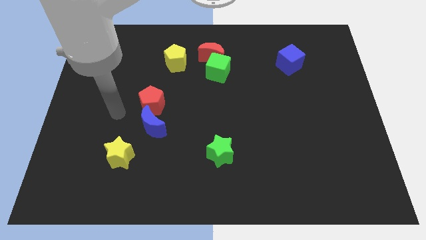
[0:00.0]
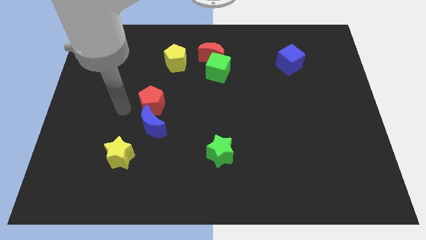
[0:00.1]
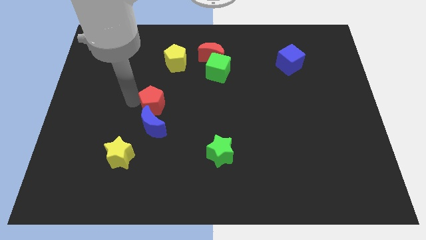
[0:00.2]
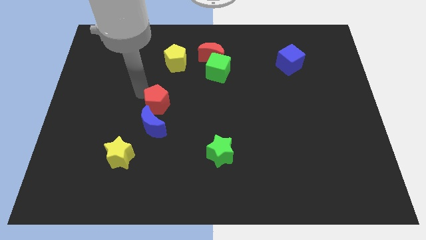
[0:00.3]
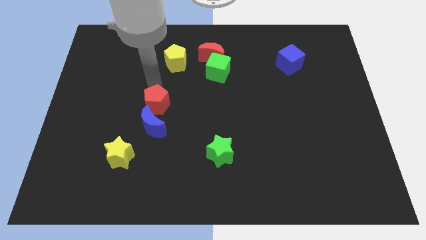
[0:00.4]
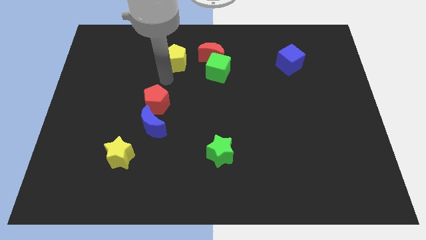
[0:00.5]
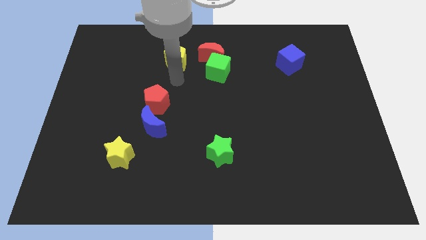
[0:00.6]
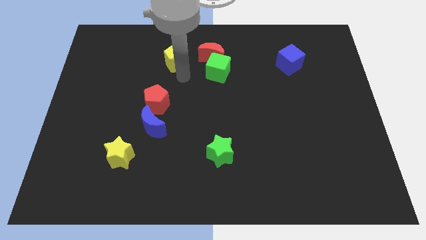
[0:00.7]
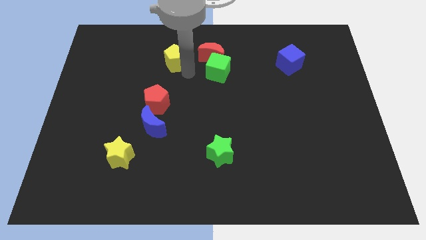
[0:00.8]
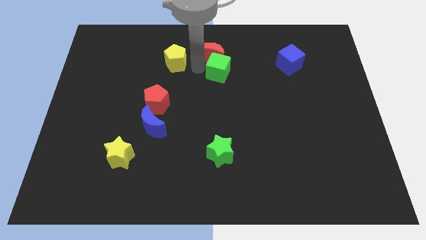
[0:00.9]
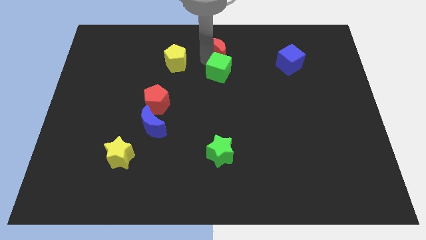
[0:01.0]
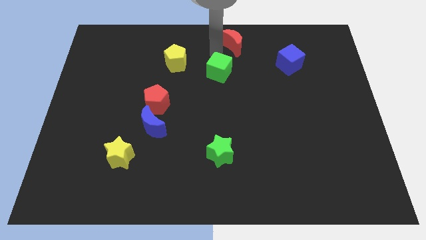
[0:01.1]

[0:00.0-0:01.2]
pull the green cube apart from the red moon

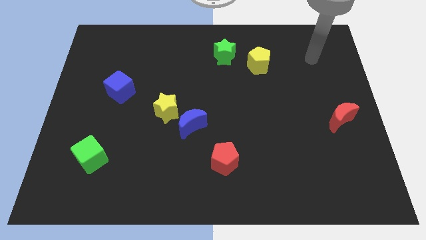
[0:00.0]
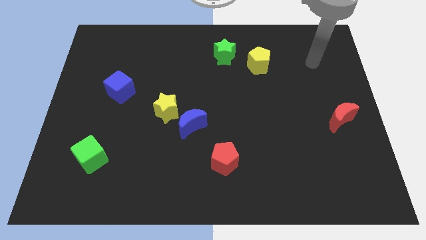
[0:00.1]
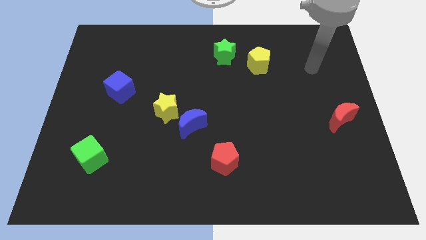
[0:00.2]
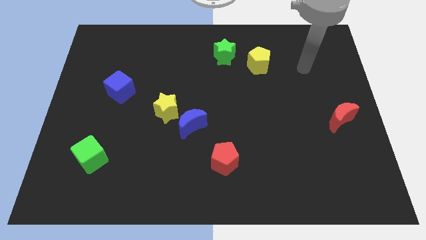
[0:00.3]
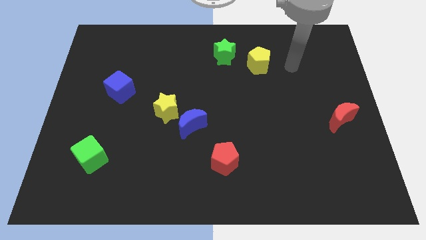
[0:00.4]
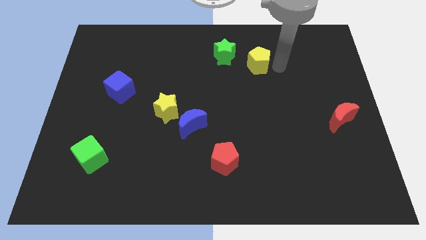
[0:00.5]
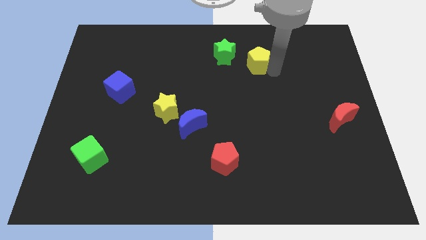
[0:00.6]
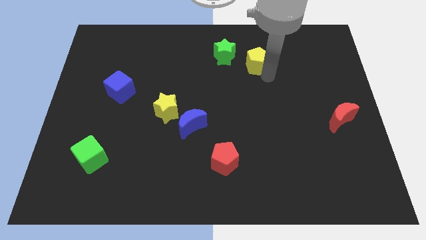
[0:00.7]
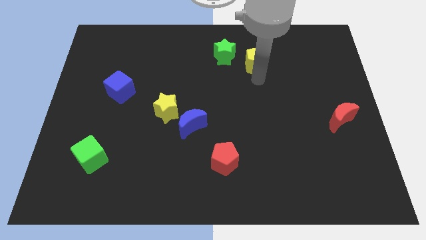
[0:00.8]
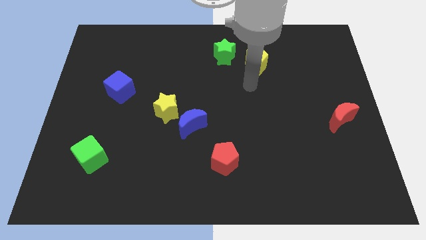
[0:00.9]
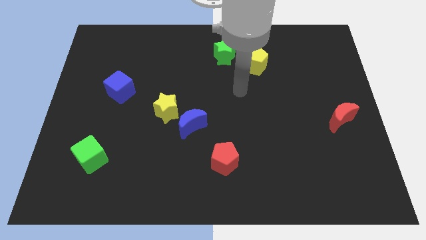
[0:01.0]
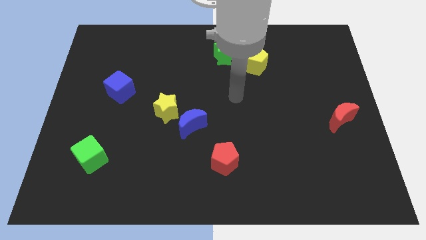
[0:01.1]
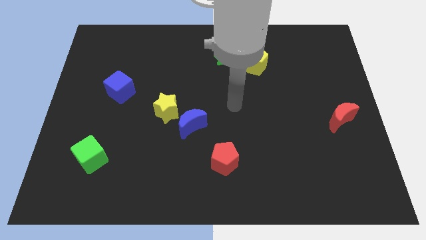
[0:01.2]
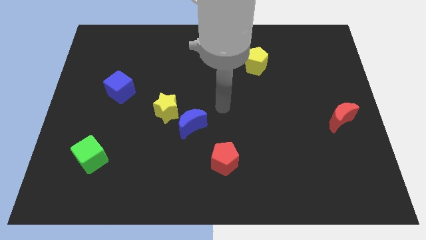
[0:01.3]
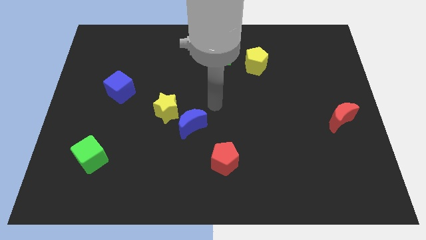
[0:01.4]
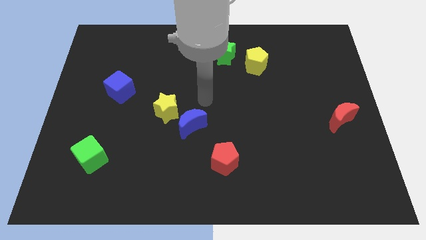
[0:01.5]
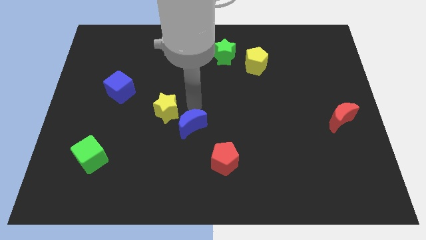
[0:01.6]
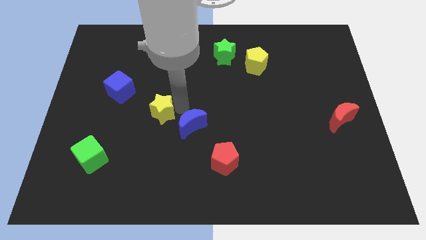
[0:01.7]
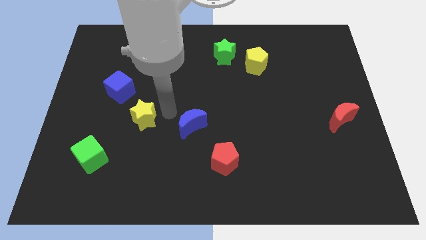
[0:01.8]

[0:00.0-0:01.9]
move the blue moon away from the yellow star

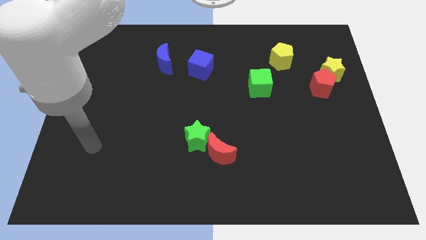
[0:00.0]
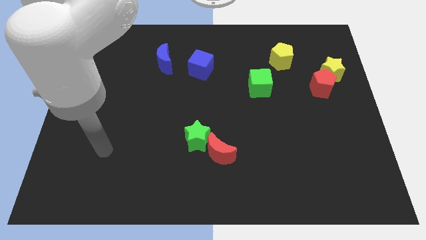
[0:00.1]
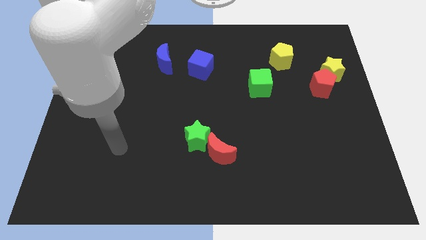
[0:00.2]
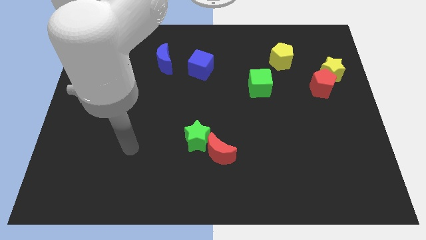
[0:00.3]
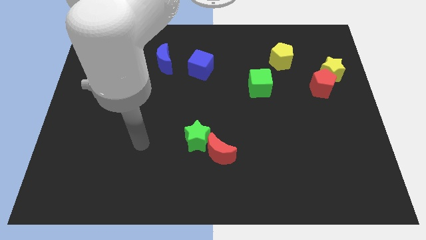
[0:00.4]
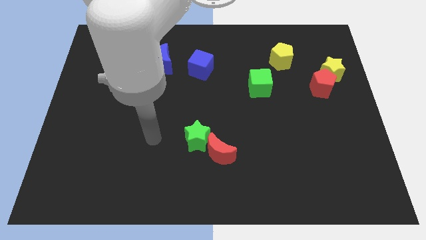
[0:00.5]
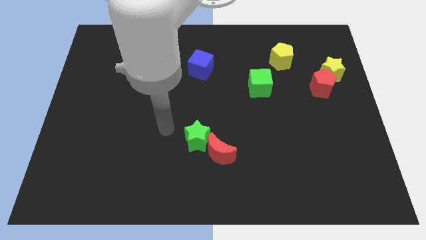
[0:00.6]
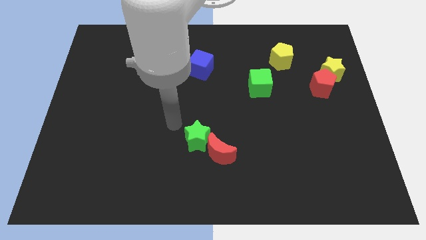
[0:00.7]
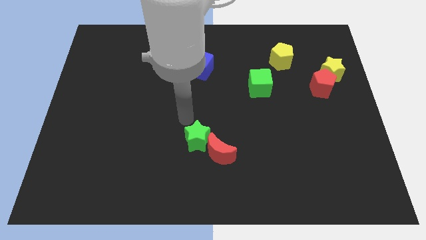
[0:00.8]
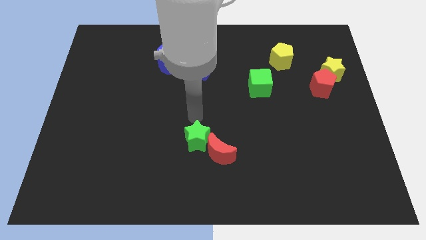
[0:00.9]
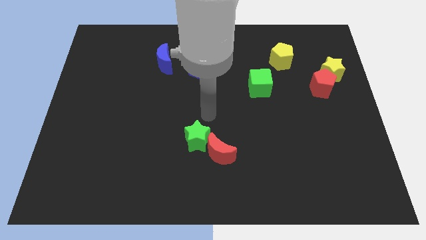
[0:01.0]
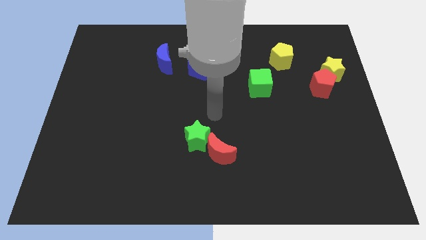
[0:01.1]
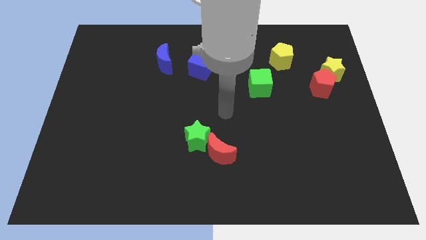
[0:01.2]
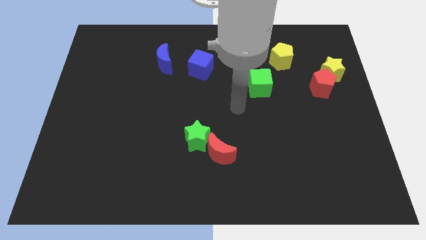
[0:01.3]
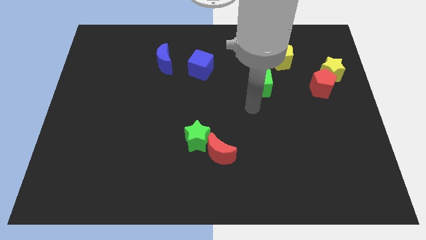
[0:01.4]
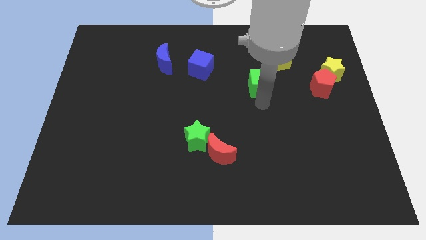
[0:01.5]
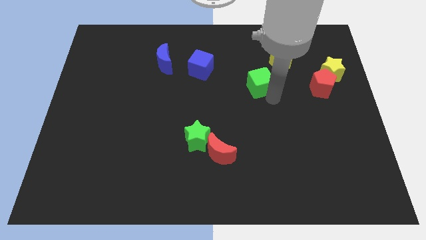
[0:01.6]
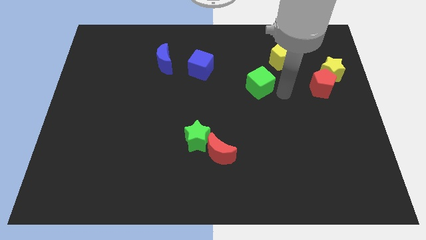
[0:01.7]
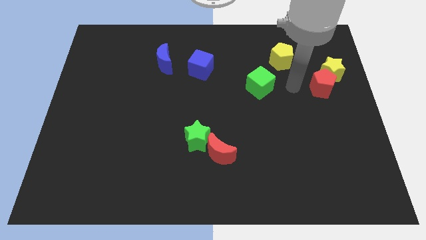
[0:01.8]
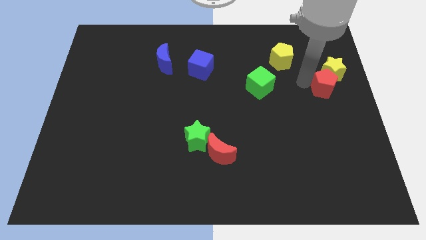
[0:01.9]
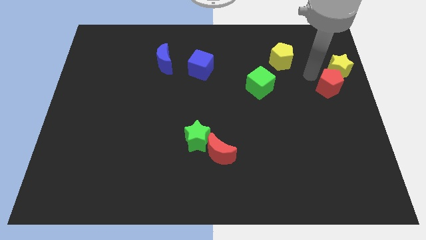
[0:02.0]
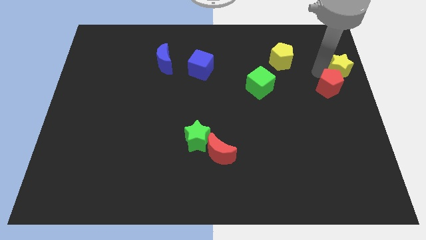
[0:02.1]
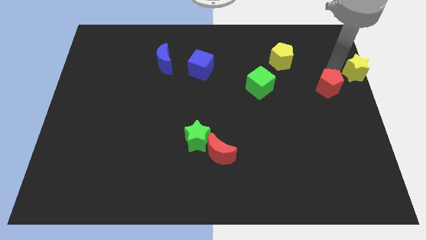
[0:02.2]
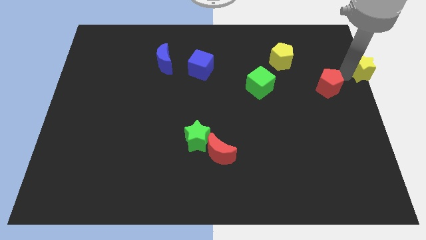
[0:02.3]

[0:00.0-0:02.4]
separate the red pentagon from the yellow star

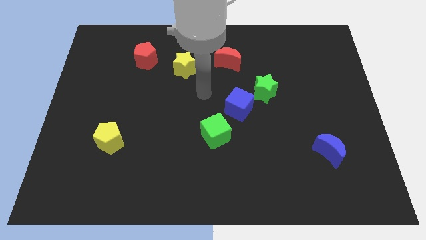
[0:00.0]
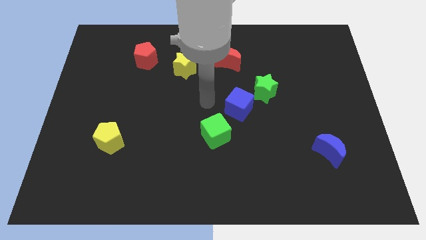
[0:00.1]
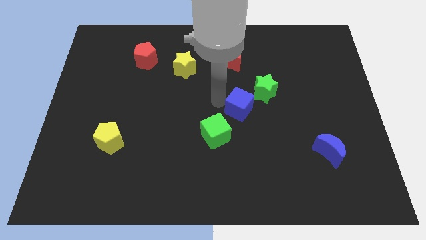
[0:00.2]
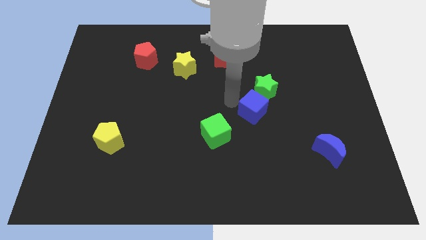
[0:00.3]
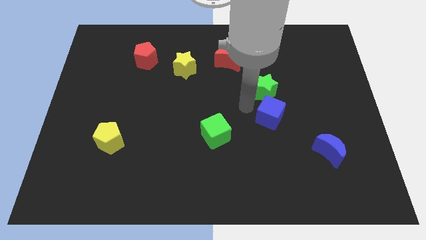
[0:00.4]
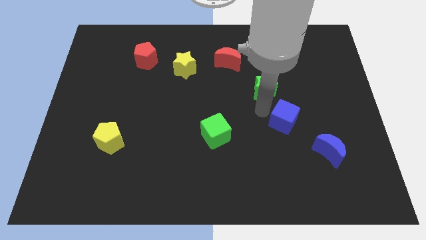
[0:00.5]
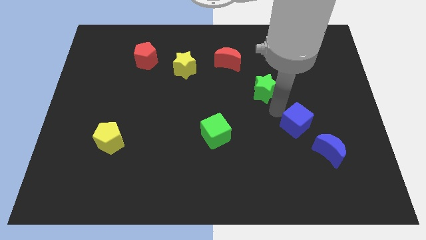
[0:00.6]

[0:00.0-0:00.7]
move the green star away from the blue cube

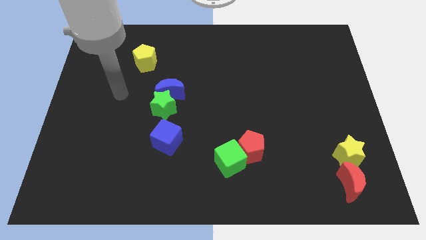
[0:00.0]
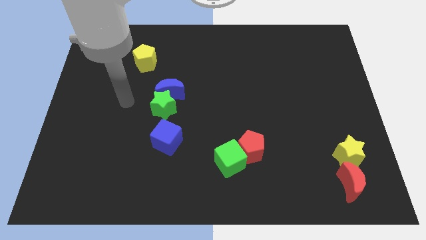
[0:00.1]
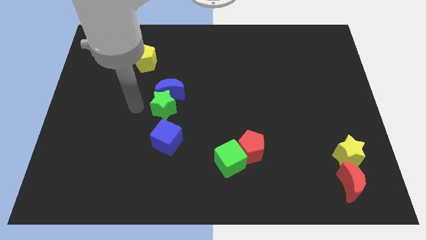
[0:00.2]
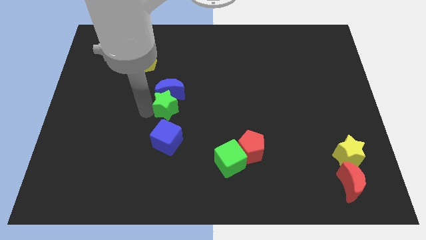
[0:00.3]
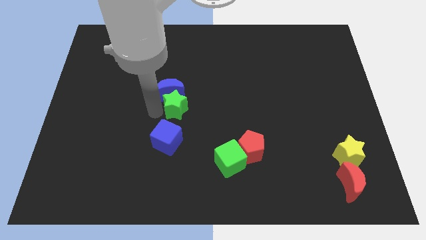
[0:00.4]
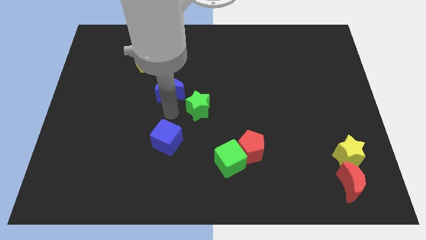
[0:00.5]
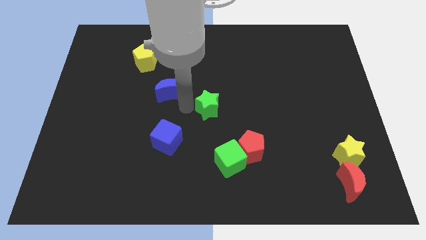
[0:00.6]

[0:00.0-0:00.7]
move the blue moon away from the green star

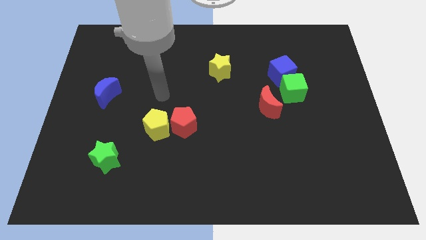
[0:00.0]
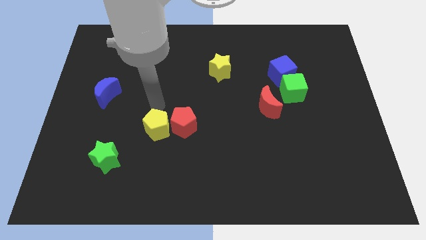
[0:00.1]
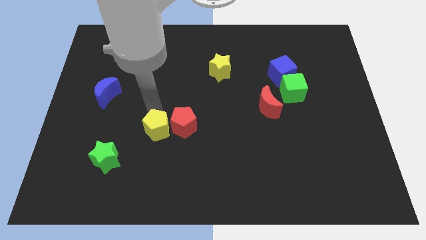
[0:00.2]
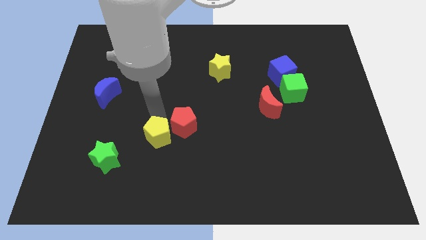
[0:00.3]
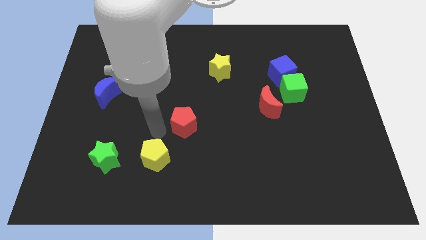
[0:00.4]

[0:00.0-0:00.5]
move the red pentagon away from the yellow pentagon

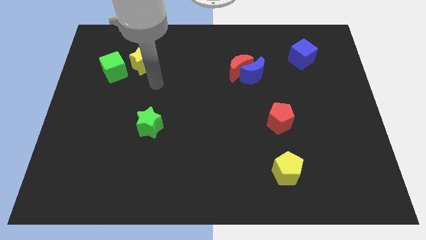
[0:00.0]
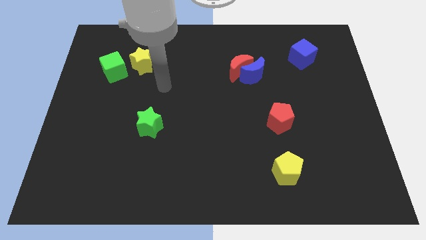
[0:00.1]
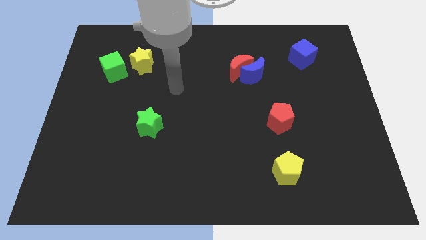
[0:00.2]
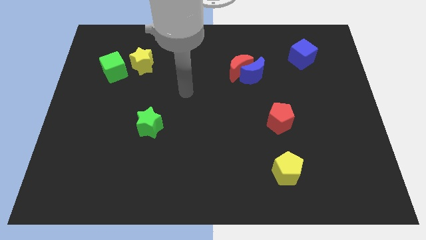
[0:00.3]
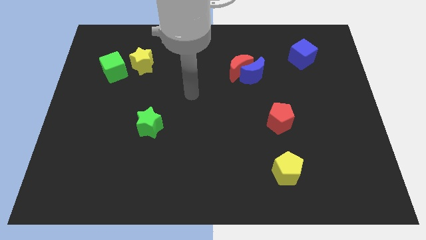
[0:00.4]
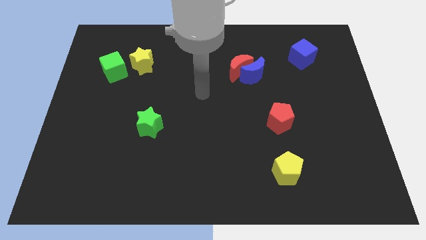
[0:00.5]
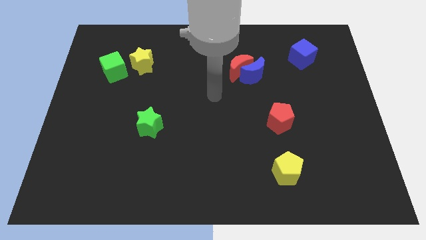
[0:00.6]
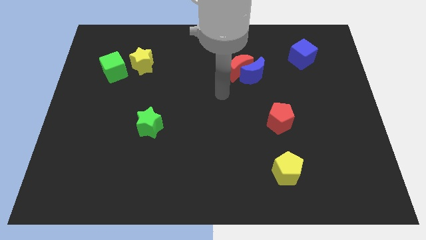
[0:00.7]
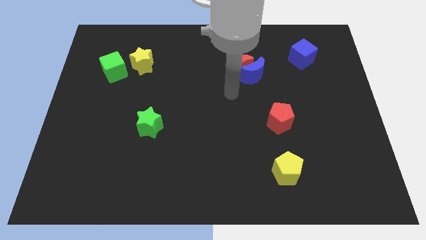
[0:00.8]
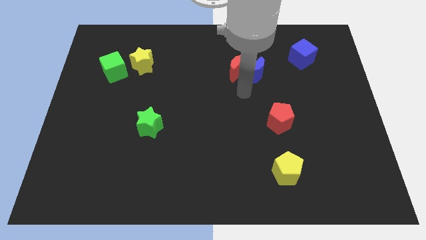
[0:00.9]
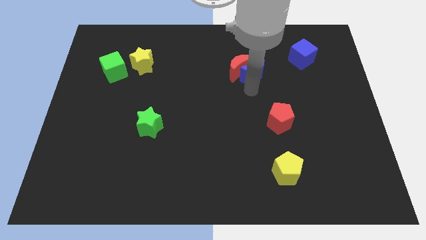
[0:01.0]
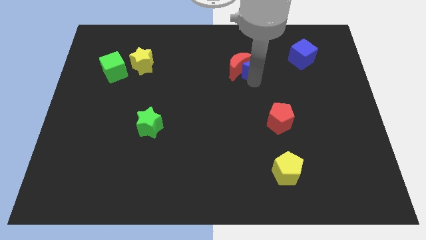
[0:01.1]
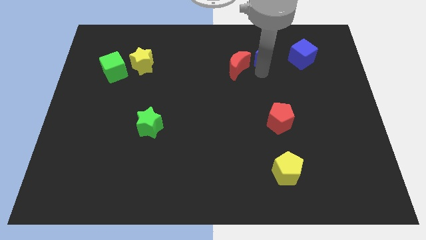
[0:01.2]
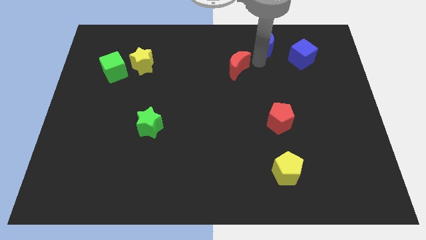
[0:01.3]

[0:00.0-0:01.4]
move the red moon away from the blue moon

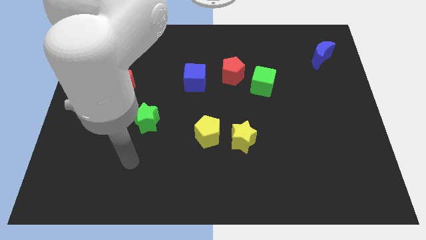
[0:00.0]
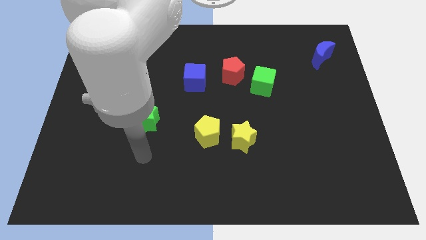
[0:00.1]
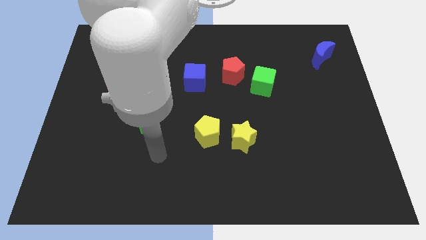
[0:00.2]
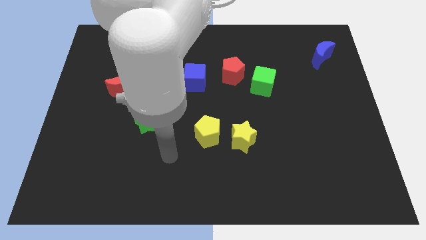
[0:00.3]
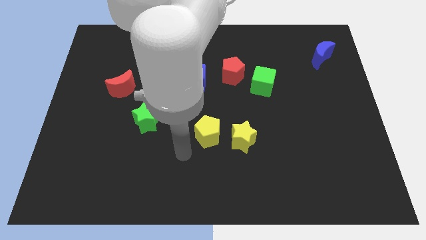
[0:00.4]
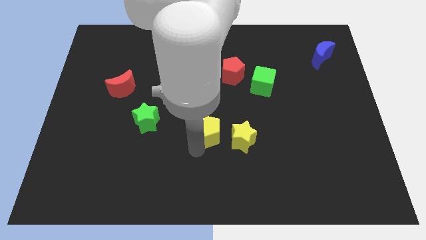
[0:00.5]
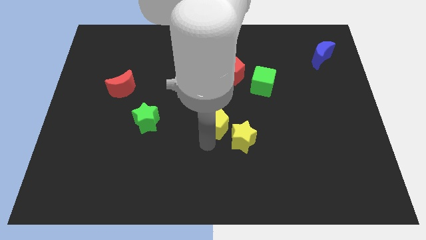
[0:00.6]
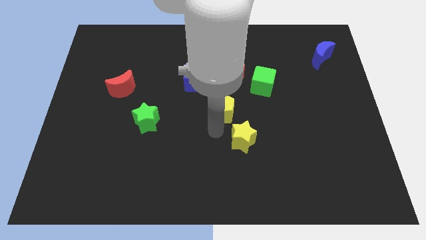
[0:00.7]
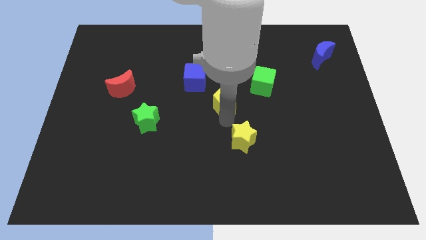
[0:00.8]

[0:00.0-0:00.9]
move the yellow star away from the yellow pentagon
